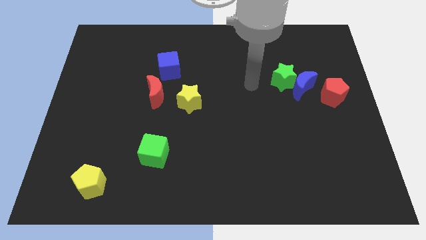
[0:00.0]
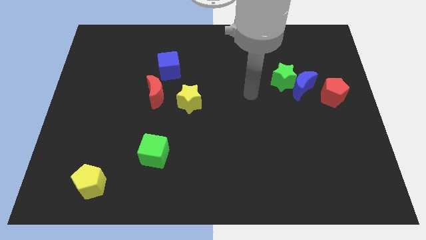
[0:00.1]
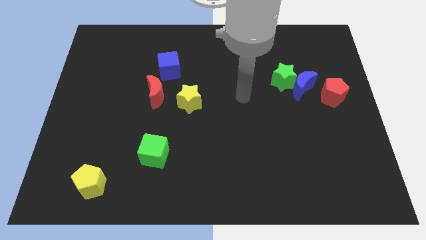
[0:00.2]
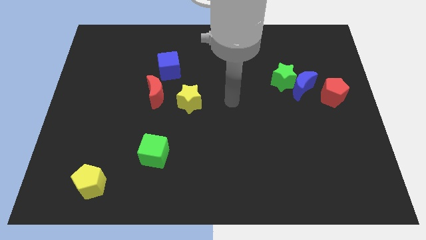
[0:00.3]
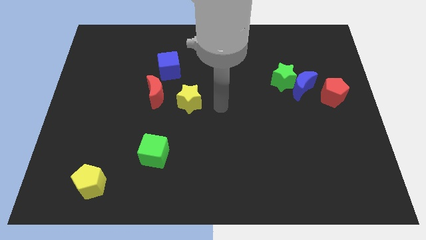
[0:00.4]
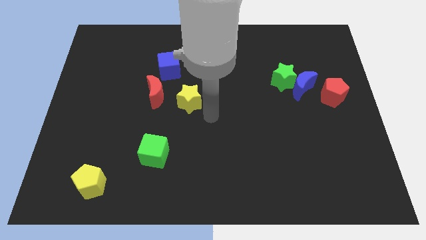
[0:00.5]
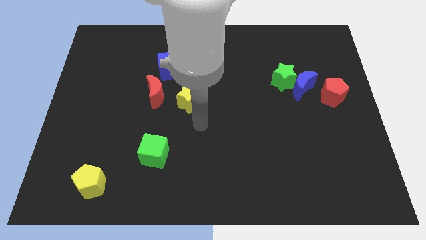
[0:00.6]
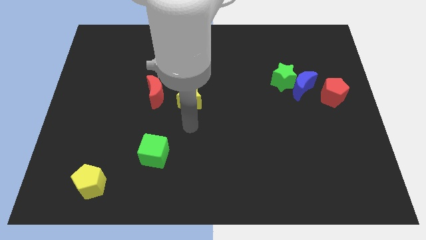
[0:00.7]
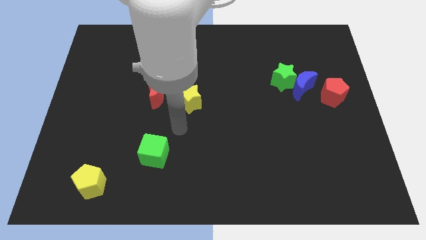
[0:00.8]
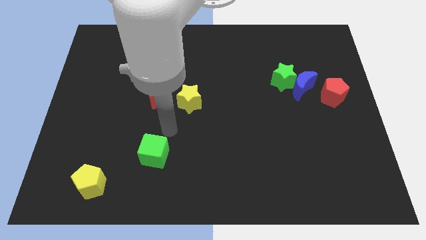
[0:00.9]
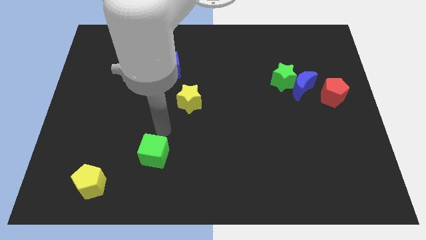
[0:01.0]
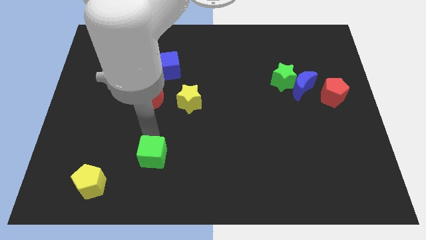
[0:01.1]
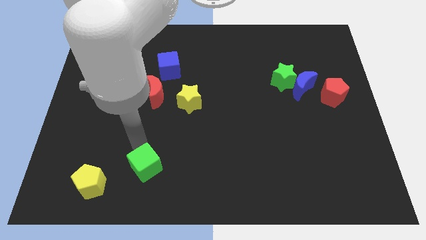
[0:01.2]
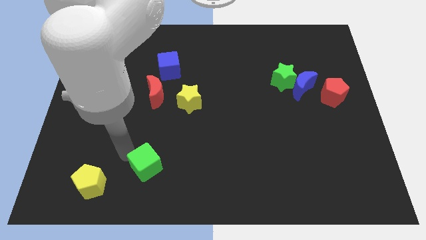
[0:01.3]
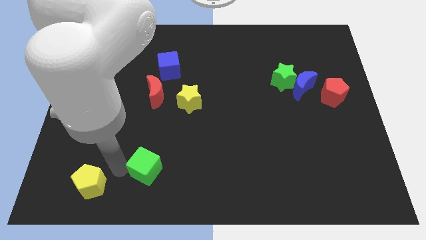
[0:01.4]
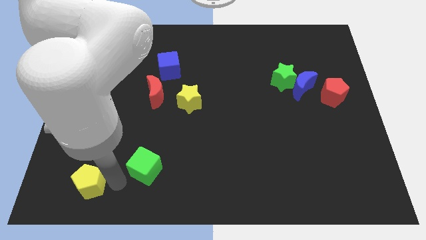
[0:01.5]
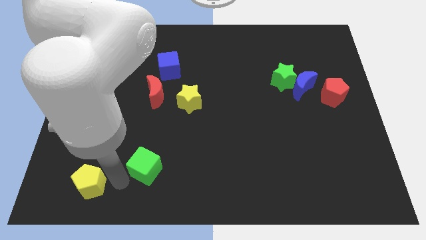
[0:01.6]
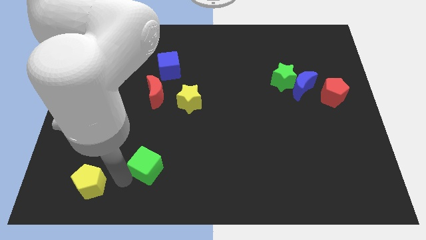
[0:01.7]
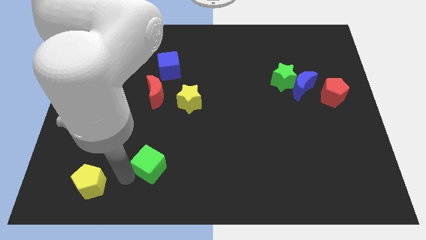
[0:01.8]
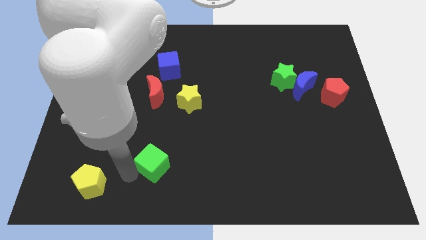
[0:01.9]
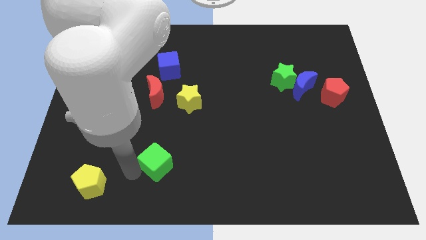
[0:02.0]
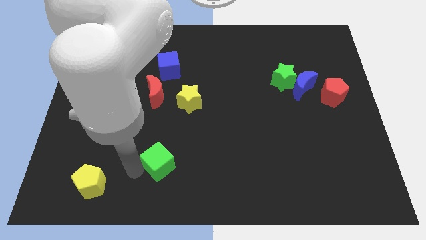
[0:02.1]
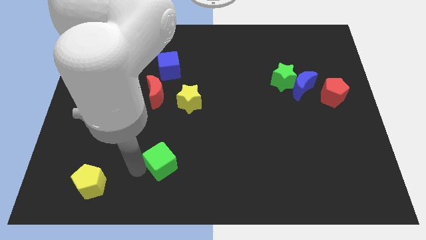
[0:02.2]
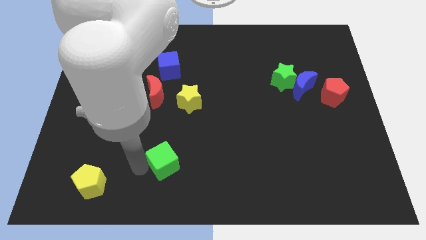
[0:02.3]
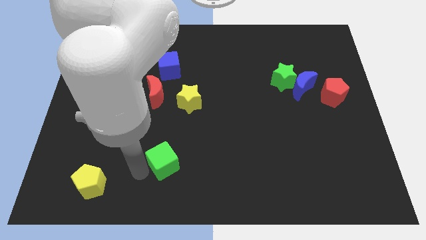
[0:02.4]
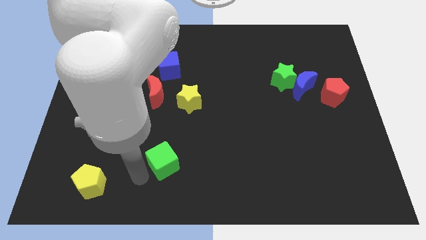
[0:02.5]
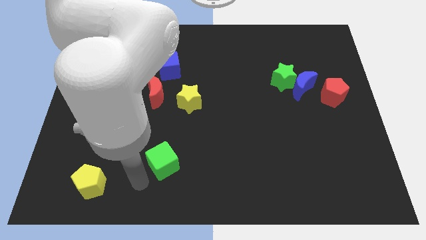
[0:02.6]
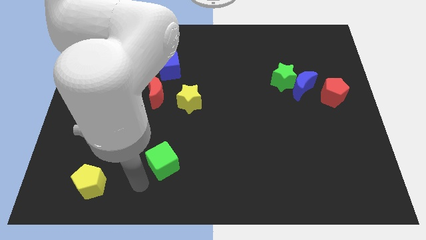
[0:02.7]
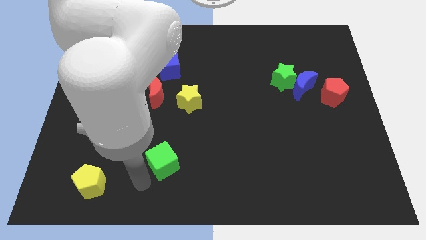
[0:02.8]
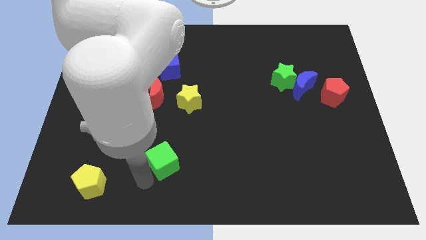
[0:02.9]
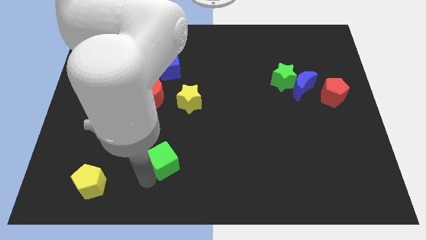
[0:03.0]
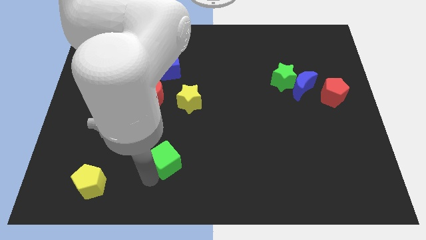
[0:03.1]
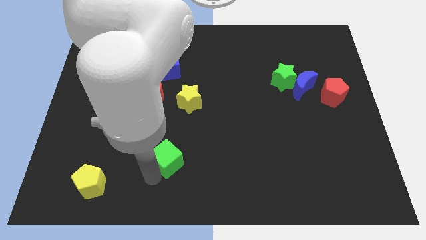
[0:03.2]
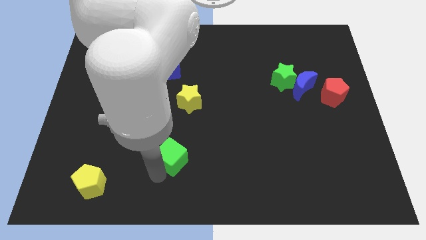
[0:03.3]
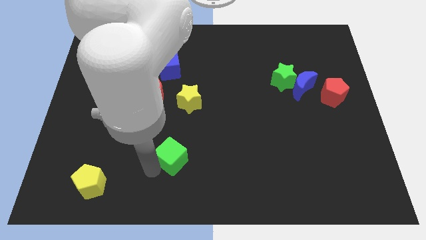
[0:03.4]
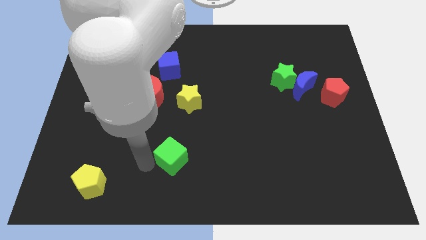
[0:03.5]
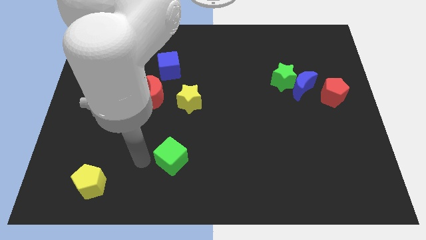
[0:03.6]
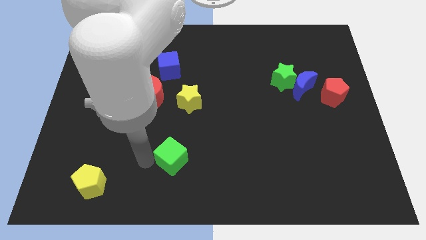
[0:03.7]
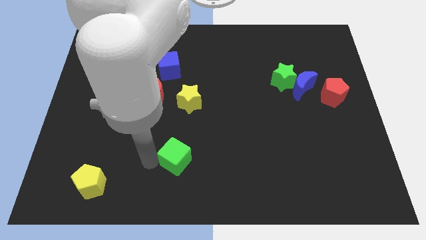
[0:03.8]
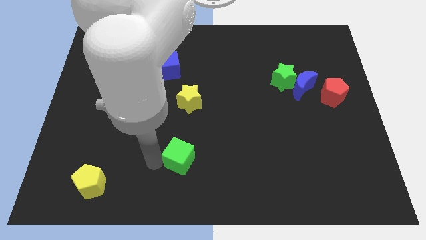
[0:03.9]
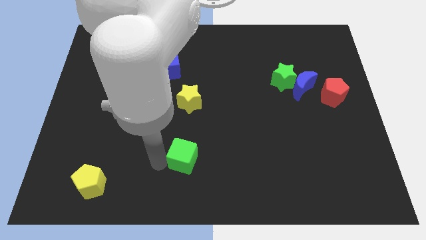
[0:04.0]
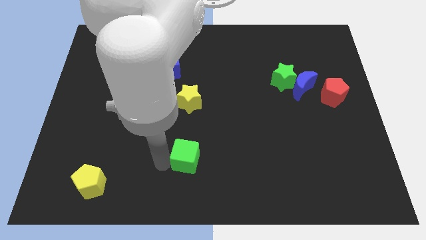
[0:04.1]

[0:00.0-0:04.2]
push the green cube somewhat to the right

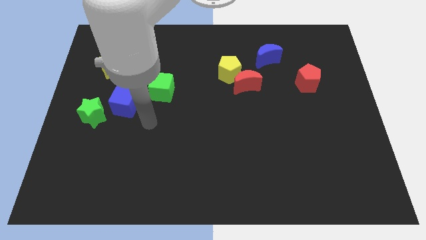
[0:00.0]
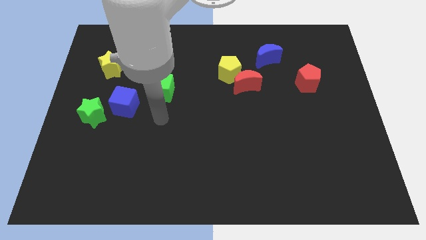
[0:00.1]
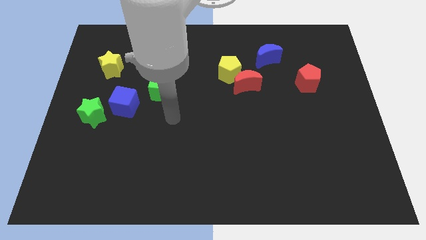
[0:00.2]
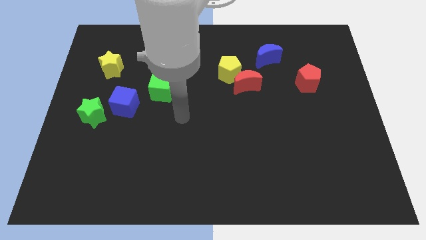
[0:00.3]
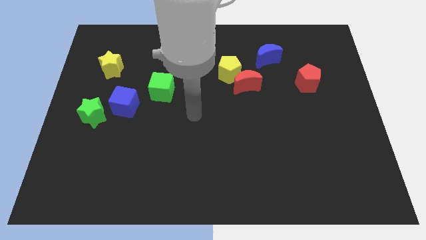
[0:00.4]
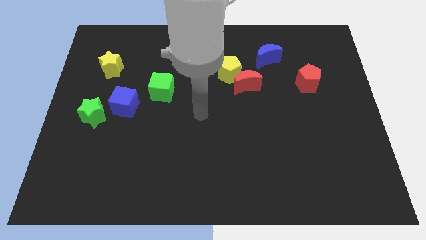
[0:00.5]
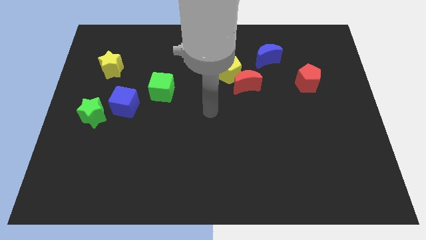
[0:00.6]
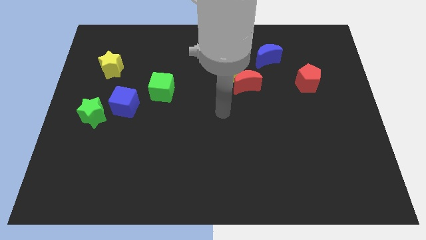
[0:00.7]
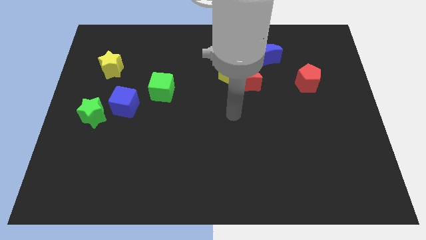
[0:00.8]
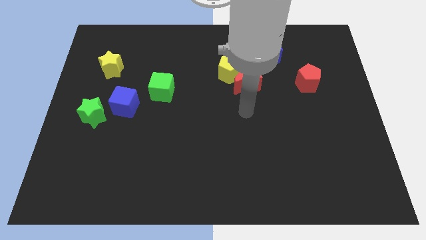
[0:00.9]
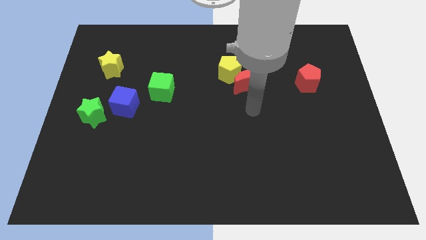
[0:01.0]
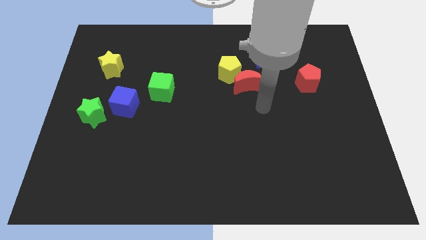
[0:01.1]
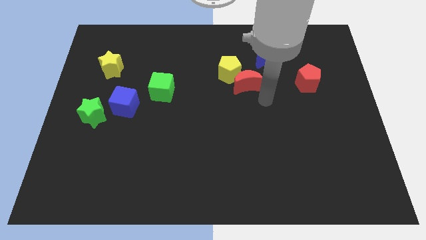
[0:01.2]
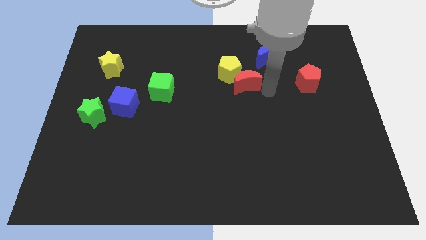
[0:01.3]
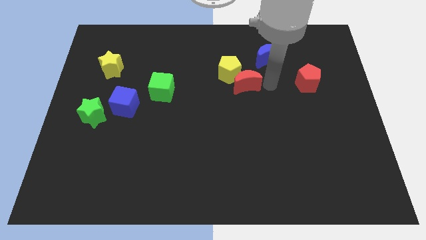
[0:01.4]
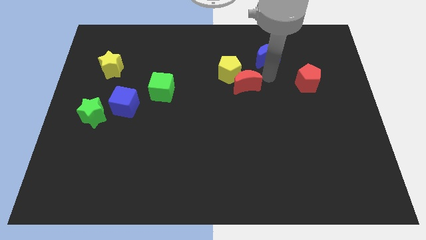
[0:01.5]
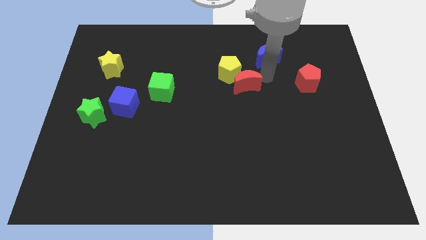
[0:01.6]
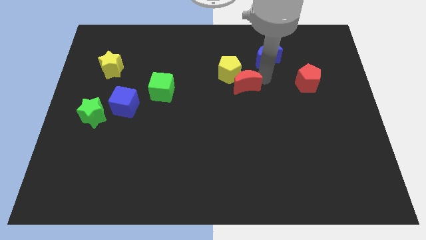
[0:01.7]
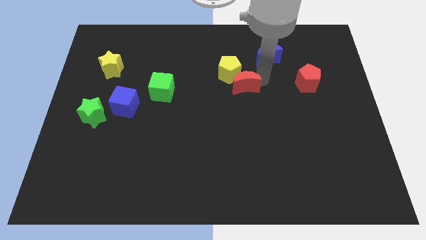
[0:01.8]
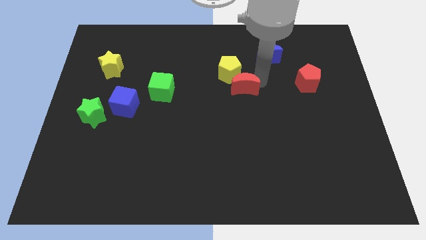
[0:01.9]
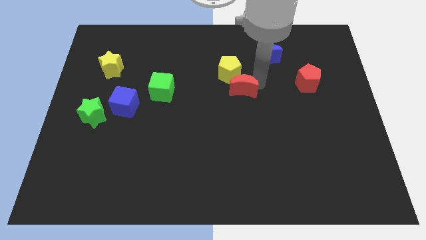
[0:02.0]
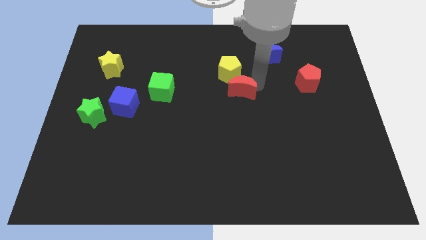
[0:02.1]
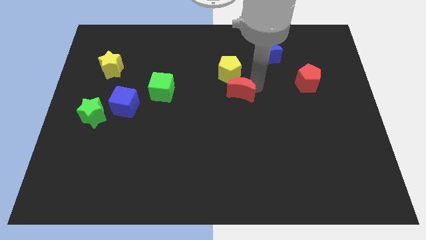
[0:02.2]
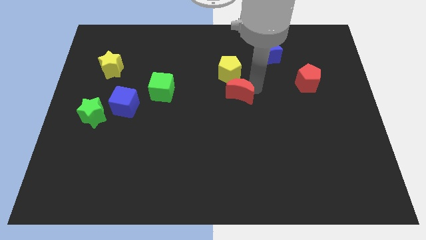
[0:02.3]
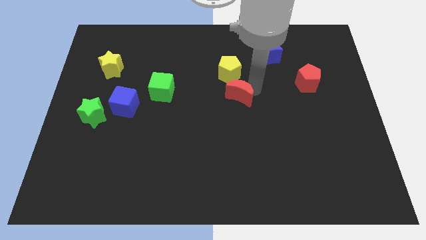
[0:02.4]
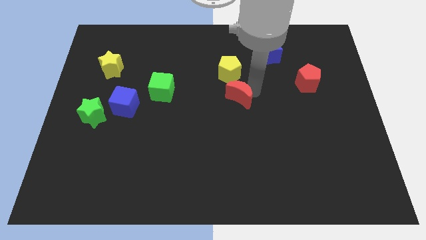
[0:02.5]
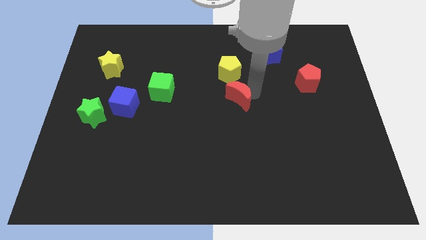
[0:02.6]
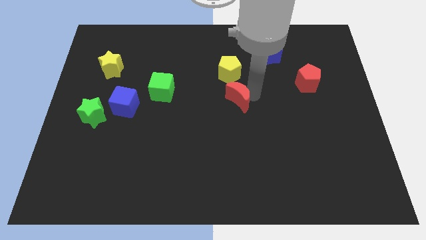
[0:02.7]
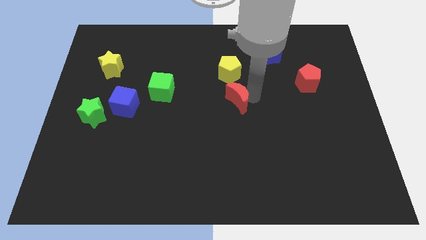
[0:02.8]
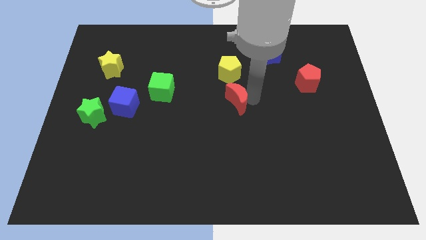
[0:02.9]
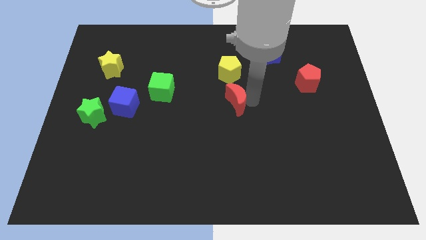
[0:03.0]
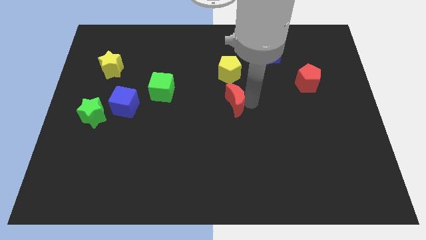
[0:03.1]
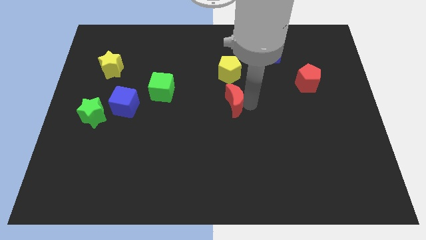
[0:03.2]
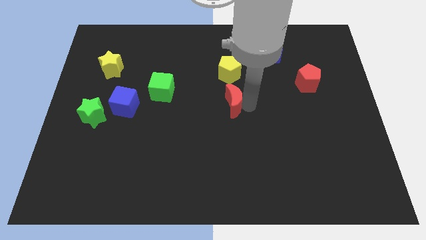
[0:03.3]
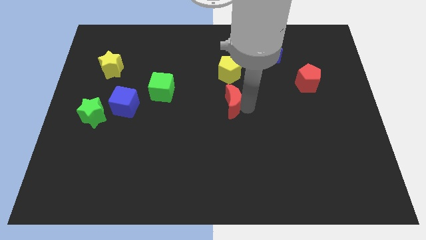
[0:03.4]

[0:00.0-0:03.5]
move the red moon somewhat down and then to the left

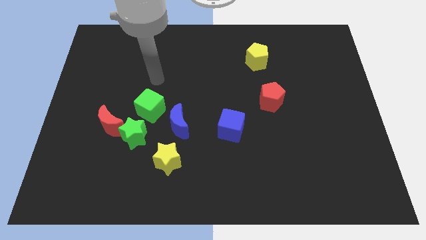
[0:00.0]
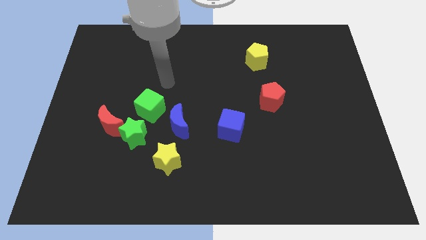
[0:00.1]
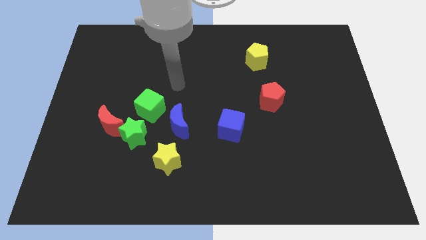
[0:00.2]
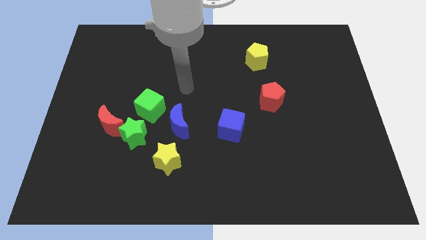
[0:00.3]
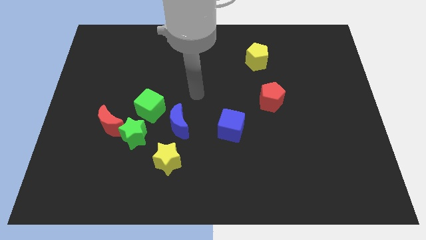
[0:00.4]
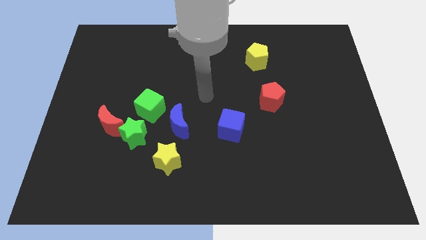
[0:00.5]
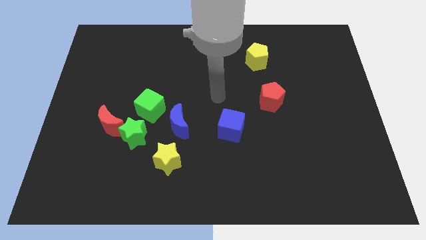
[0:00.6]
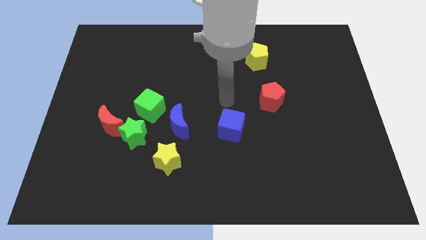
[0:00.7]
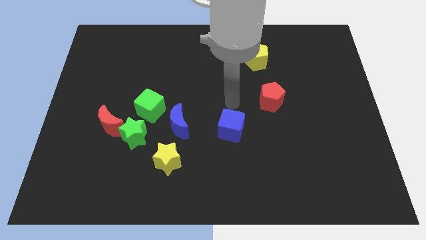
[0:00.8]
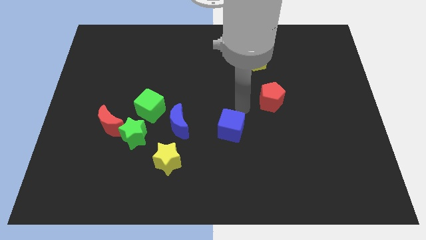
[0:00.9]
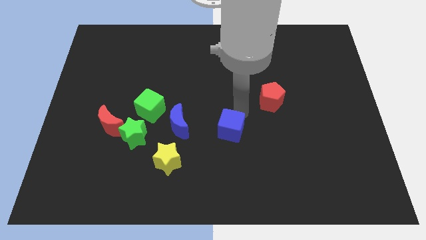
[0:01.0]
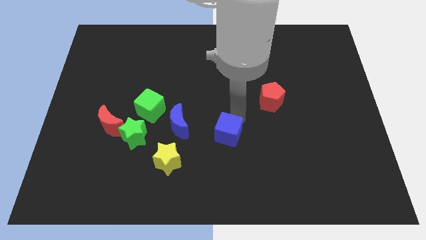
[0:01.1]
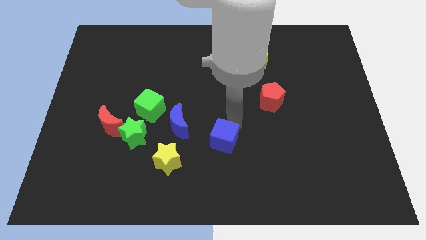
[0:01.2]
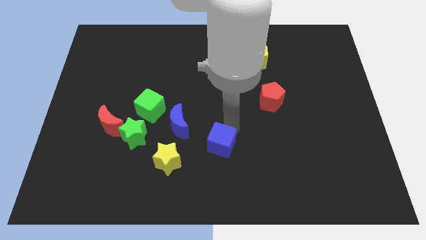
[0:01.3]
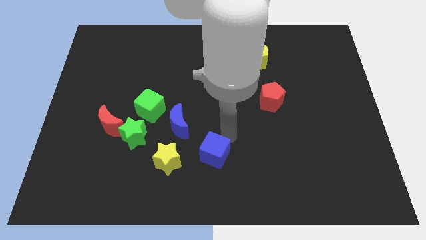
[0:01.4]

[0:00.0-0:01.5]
move the blue cube a little downwards and to the left
